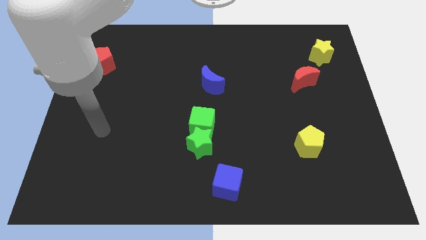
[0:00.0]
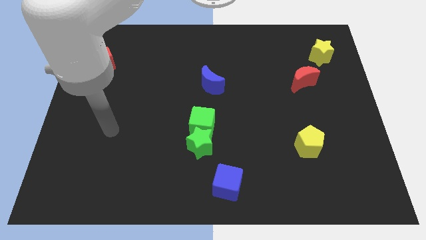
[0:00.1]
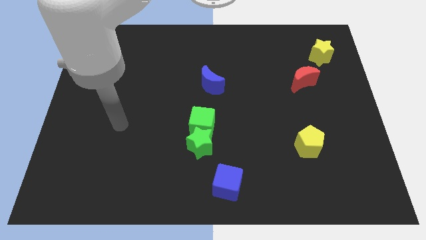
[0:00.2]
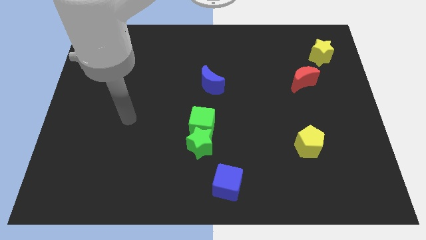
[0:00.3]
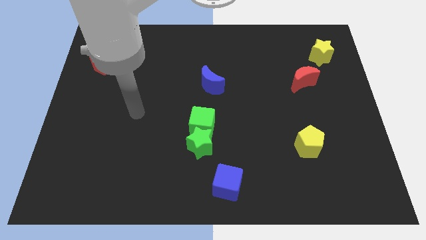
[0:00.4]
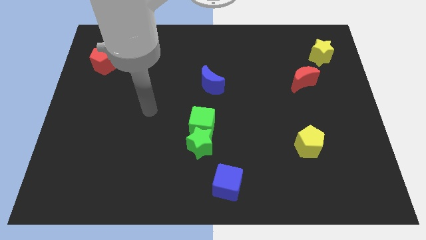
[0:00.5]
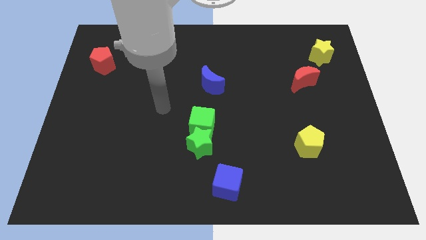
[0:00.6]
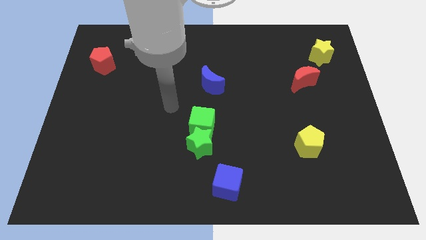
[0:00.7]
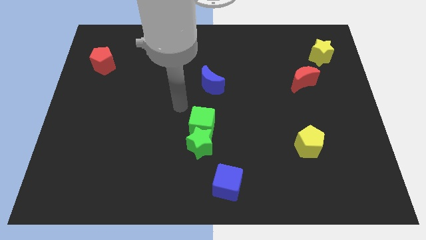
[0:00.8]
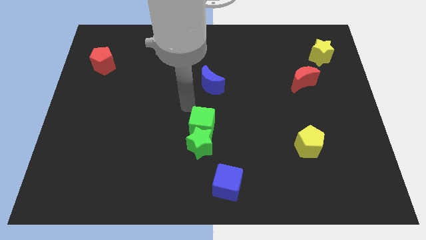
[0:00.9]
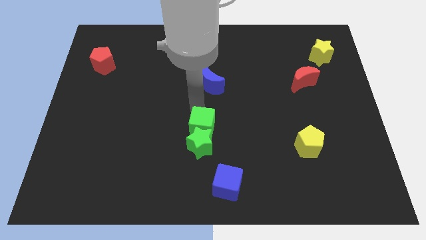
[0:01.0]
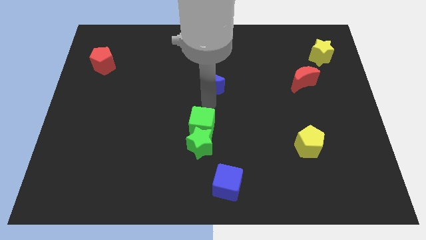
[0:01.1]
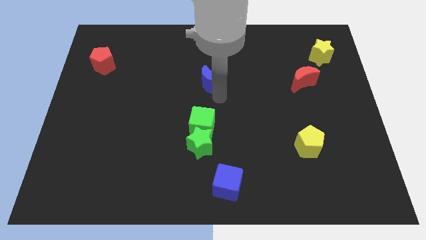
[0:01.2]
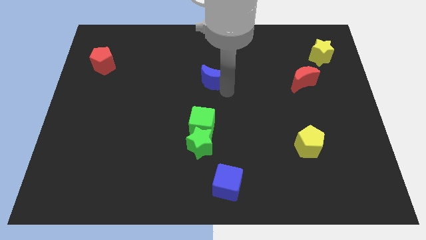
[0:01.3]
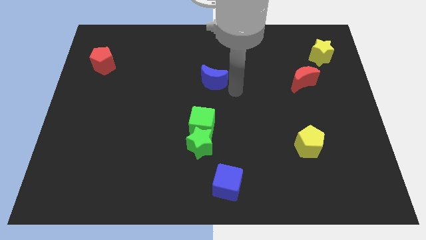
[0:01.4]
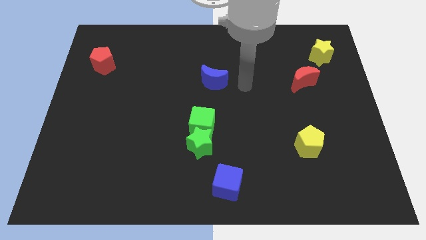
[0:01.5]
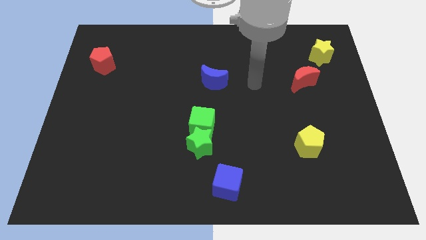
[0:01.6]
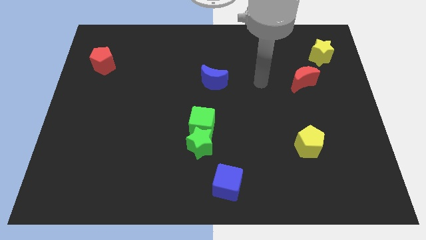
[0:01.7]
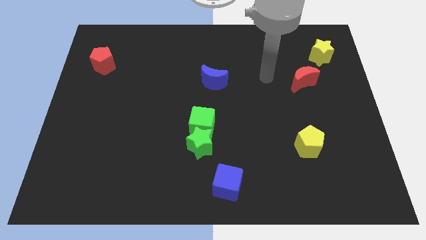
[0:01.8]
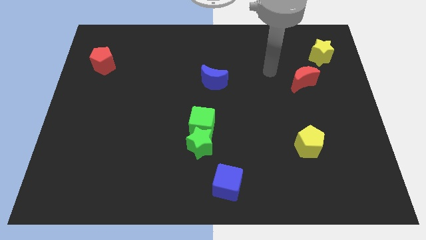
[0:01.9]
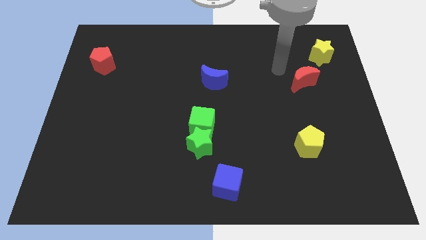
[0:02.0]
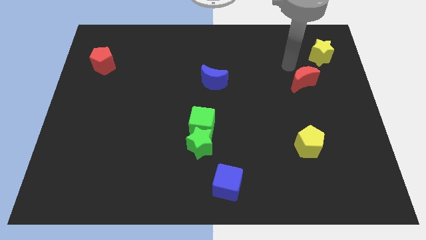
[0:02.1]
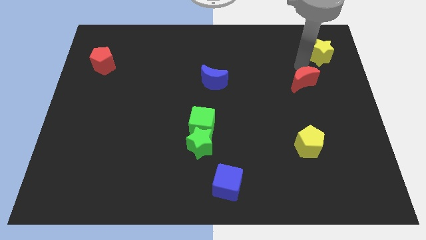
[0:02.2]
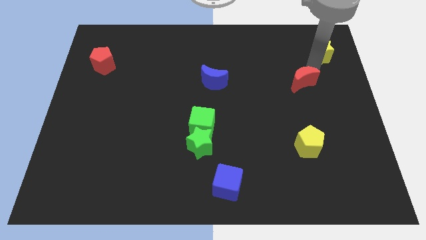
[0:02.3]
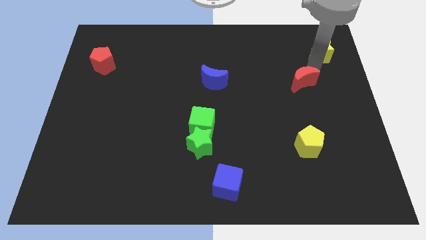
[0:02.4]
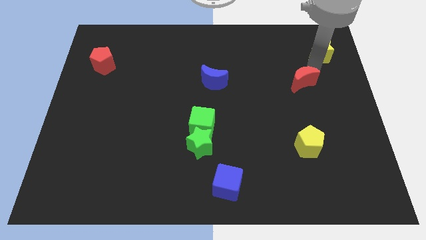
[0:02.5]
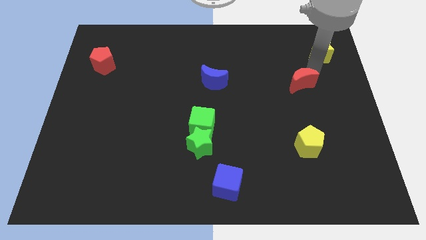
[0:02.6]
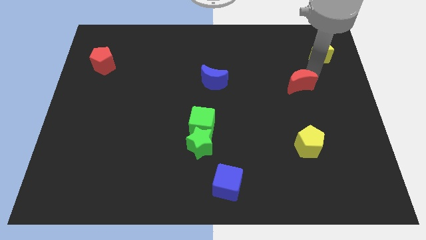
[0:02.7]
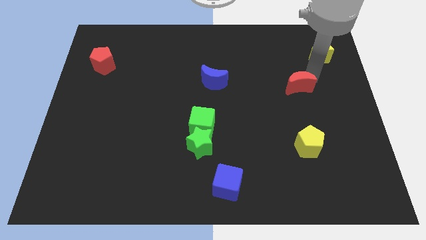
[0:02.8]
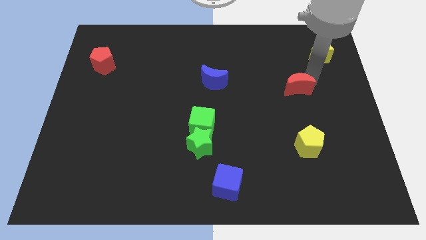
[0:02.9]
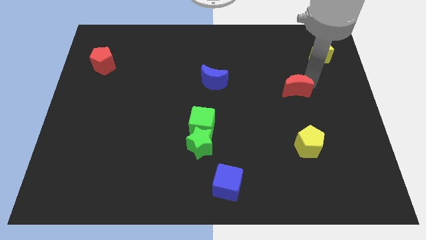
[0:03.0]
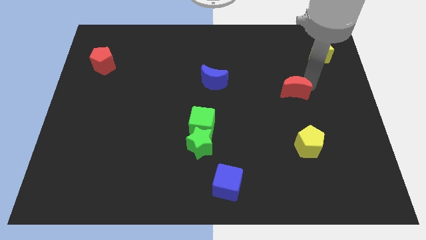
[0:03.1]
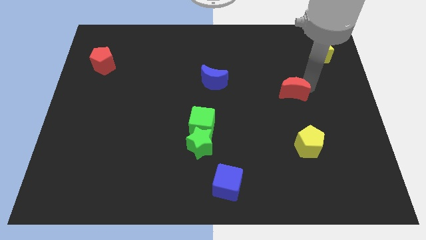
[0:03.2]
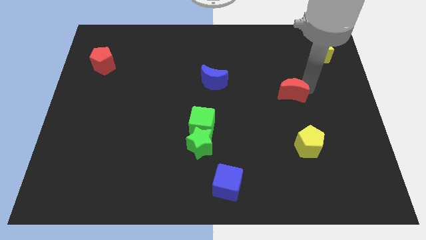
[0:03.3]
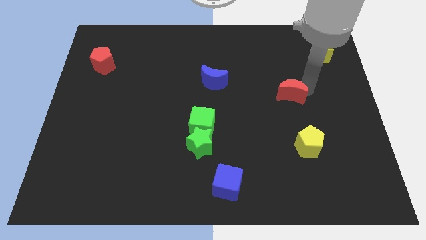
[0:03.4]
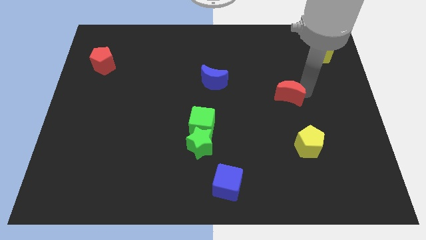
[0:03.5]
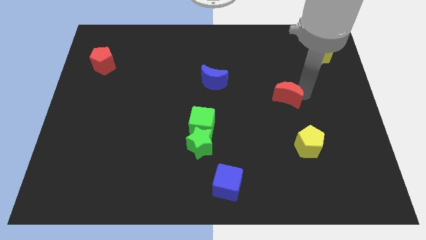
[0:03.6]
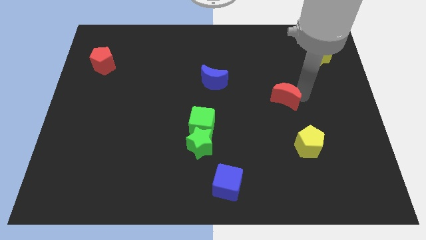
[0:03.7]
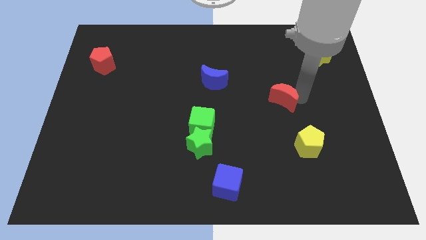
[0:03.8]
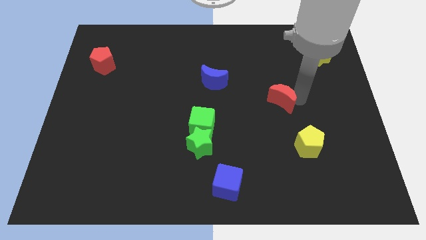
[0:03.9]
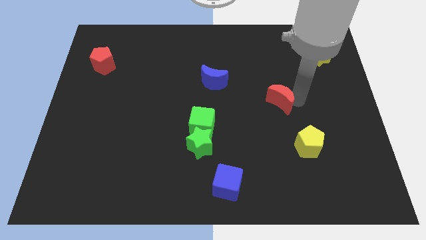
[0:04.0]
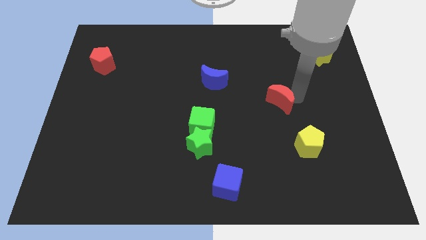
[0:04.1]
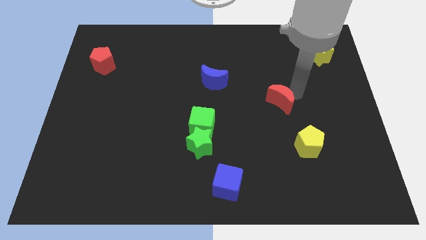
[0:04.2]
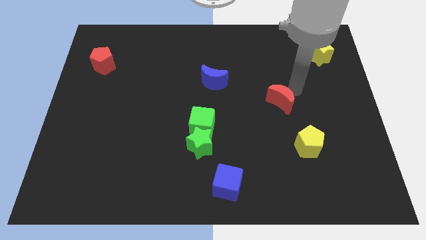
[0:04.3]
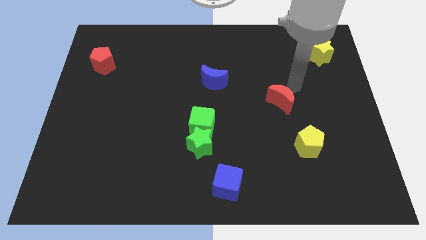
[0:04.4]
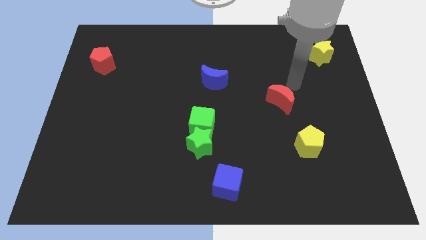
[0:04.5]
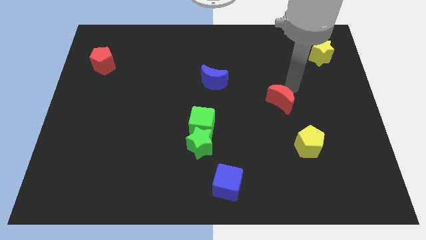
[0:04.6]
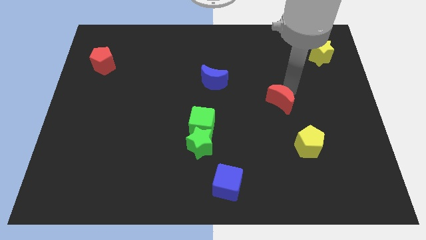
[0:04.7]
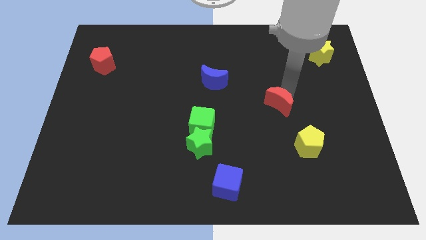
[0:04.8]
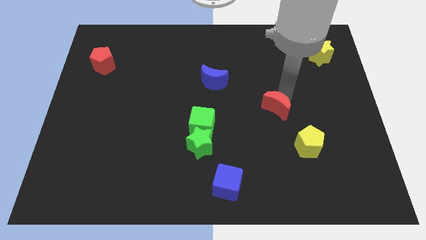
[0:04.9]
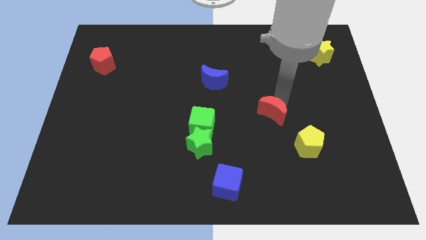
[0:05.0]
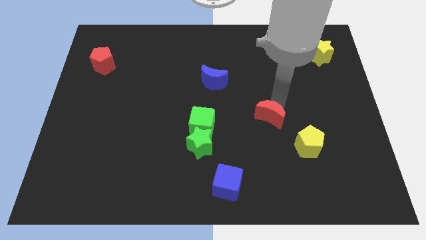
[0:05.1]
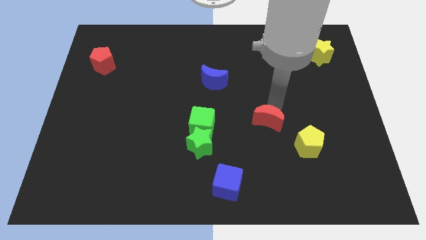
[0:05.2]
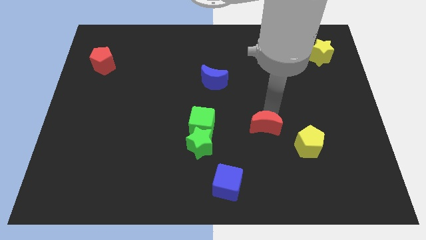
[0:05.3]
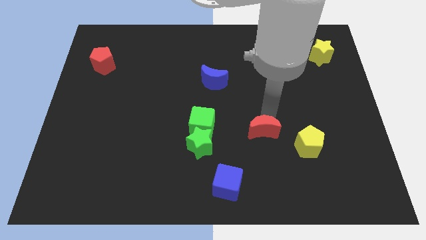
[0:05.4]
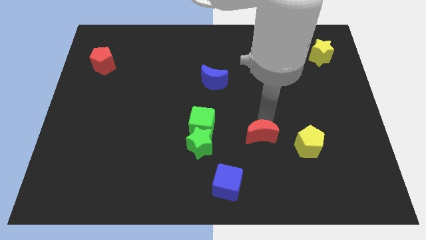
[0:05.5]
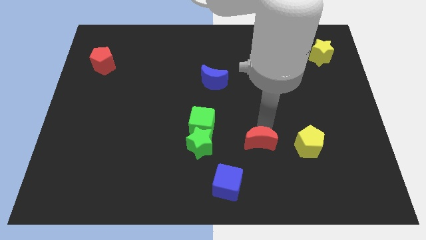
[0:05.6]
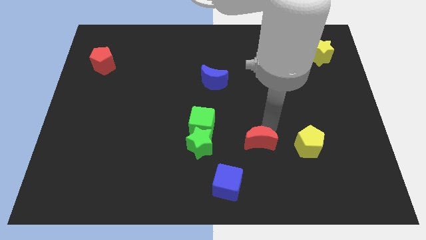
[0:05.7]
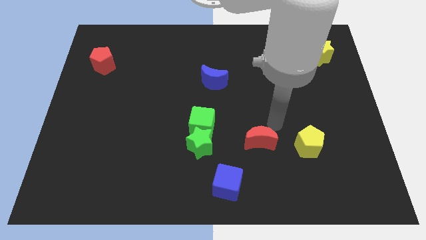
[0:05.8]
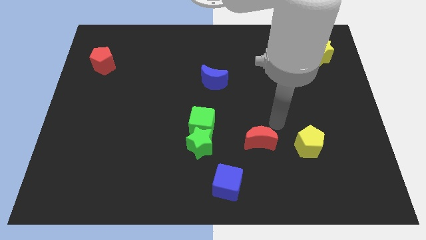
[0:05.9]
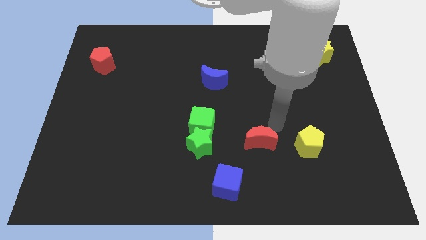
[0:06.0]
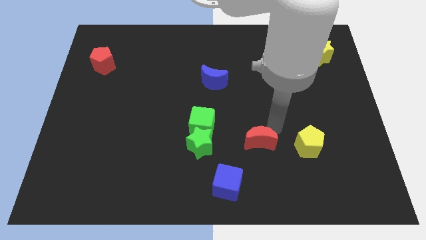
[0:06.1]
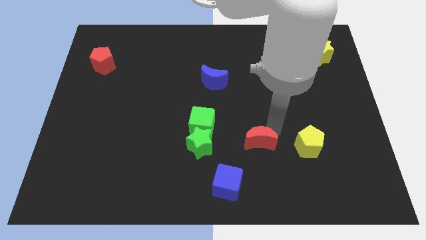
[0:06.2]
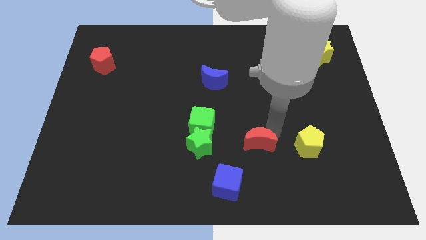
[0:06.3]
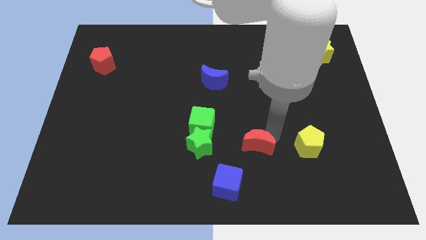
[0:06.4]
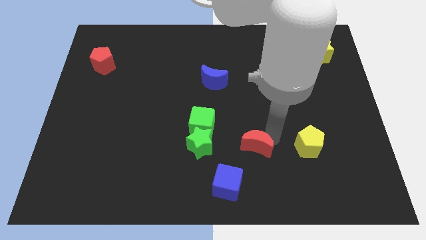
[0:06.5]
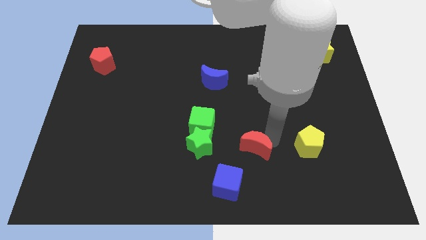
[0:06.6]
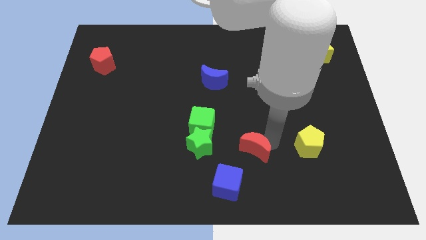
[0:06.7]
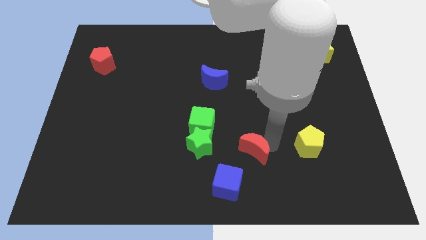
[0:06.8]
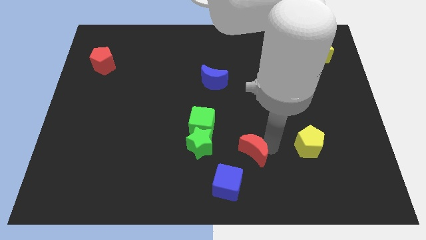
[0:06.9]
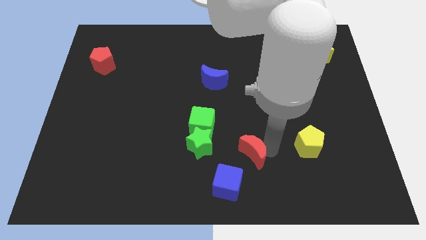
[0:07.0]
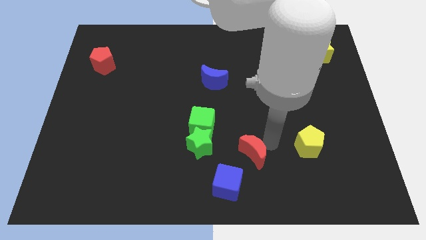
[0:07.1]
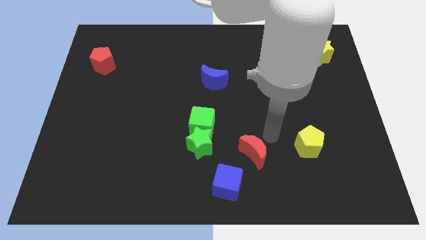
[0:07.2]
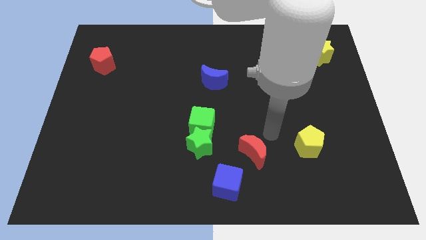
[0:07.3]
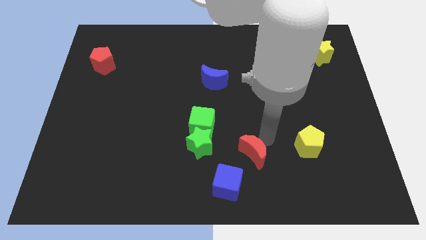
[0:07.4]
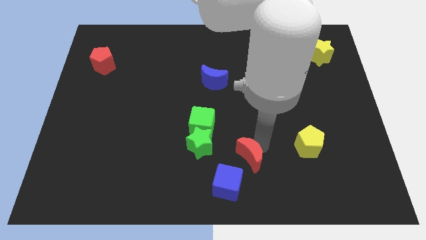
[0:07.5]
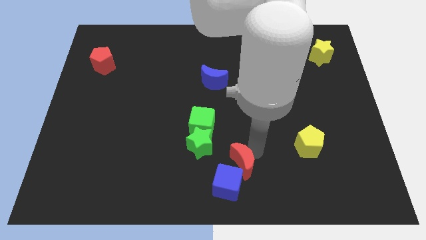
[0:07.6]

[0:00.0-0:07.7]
move the red moon next to the blue cube
